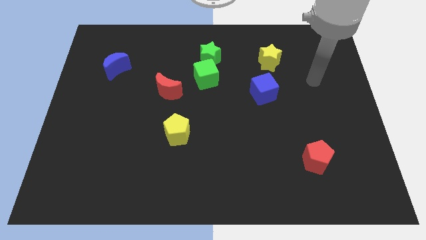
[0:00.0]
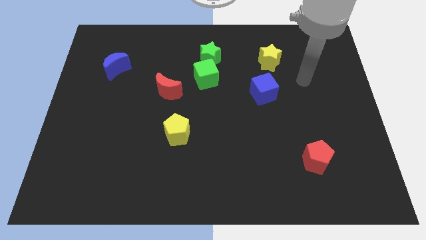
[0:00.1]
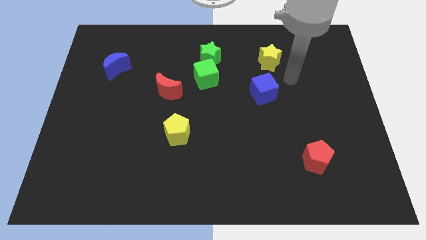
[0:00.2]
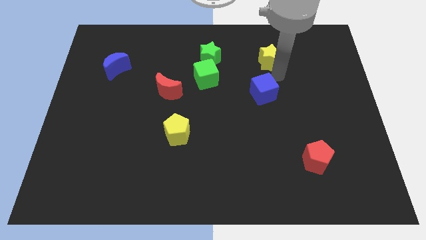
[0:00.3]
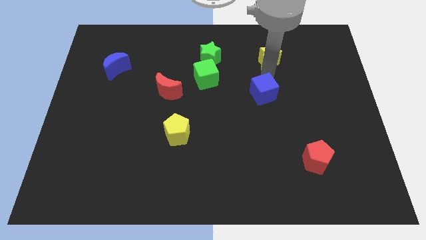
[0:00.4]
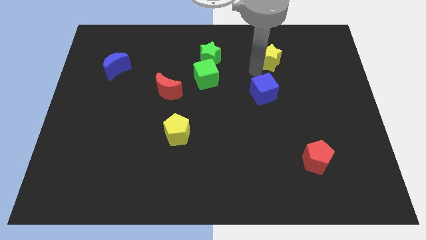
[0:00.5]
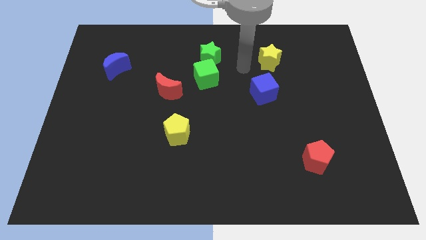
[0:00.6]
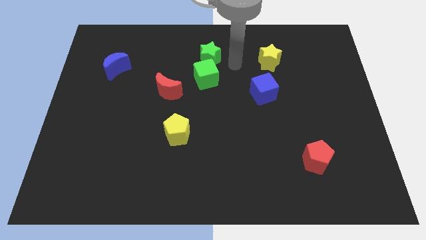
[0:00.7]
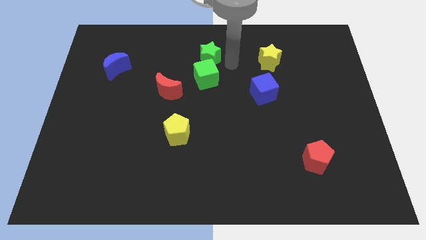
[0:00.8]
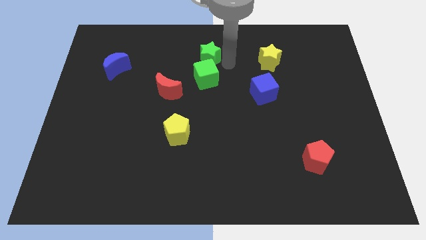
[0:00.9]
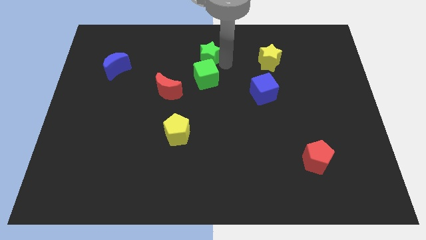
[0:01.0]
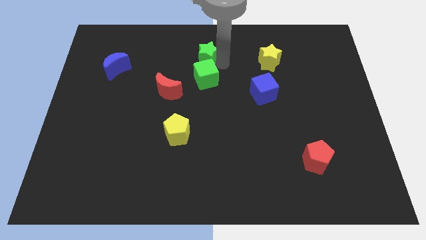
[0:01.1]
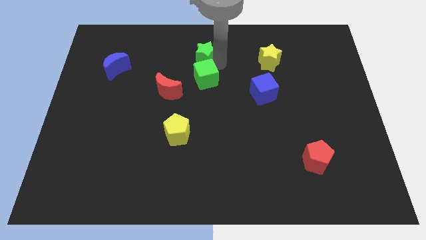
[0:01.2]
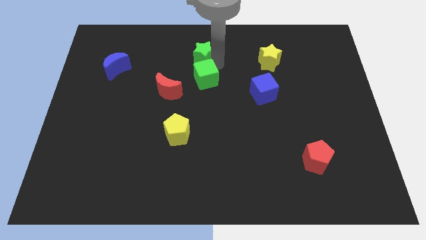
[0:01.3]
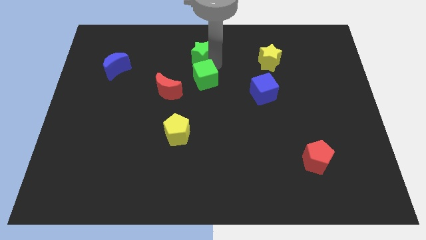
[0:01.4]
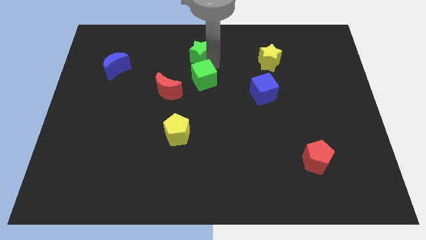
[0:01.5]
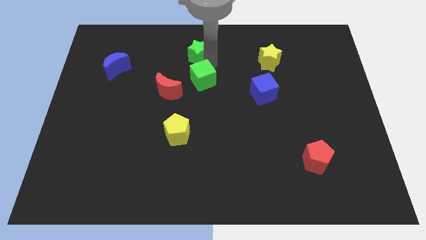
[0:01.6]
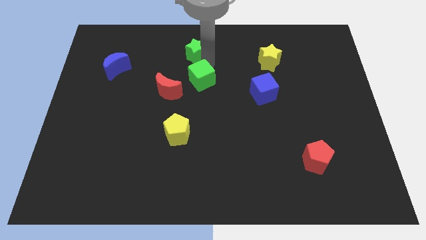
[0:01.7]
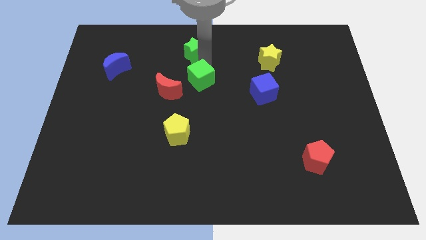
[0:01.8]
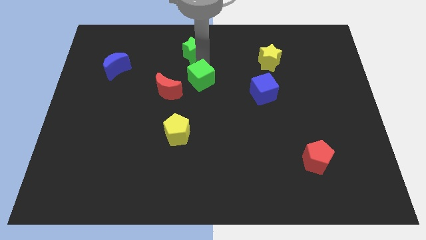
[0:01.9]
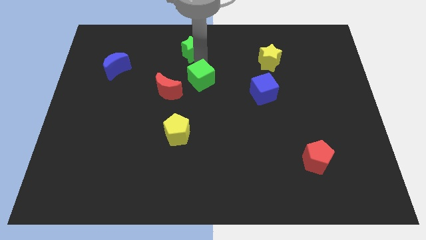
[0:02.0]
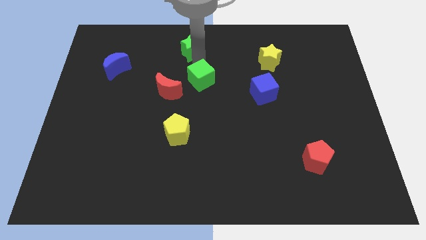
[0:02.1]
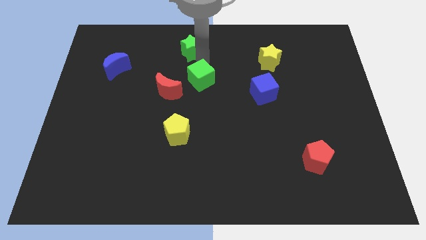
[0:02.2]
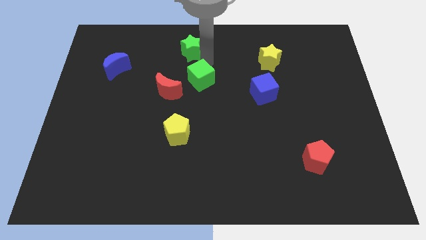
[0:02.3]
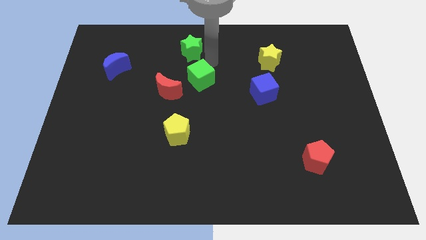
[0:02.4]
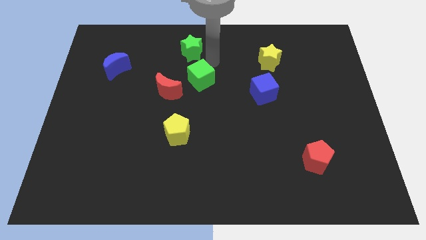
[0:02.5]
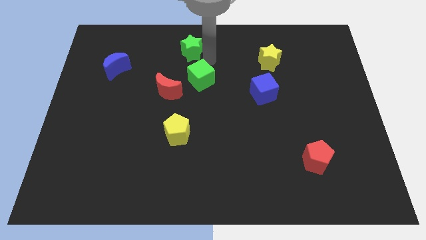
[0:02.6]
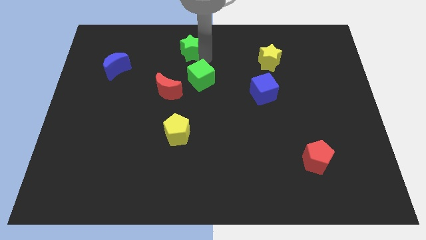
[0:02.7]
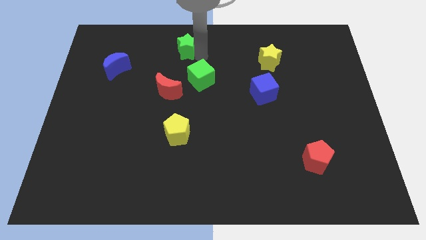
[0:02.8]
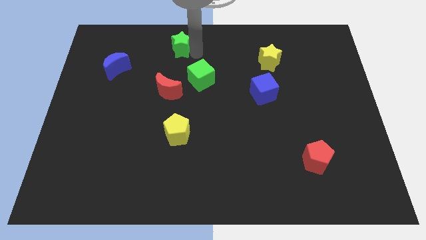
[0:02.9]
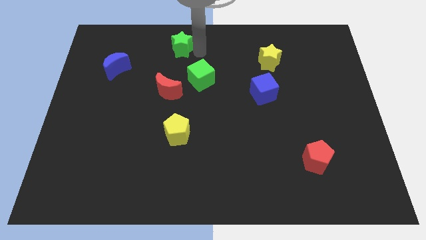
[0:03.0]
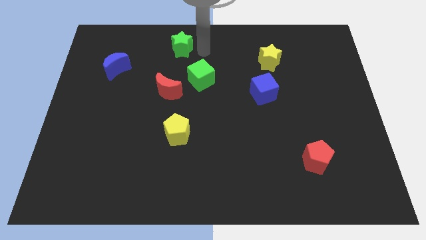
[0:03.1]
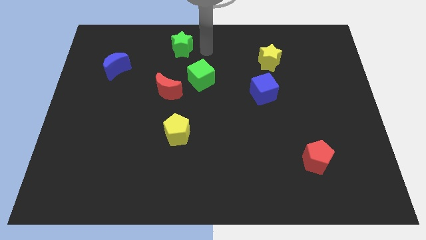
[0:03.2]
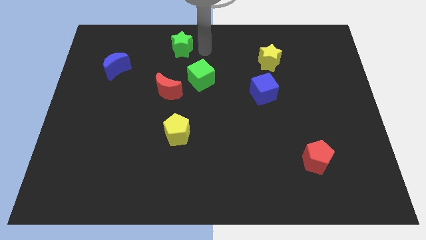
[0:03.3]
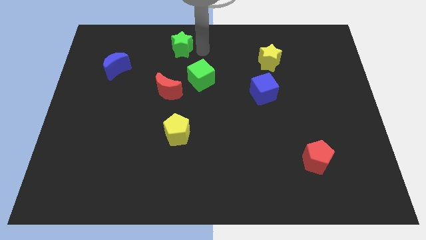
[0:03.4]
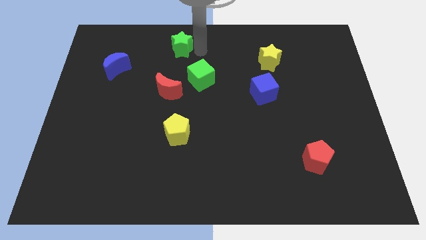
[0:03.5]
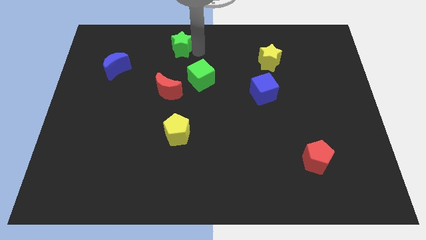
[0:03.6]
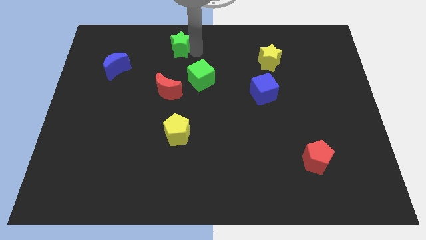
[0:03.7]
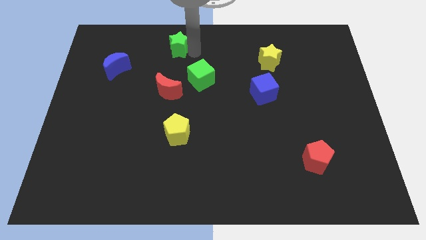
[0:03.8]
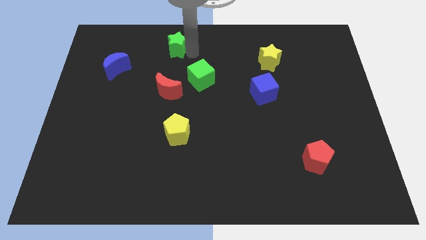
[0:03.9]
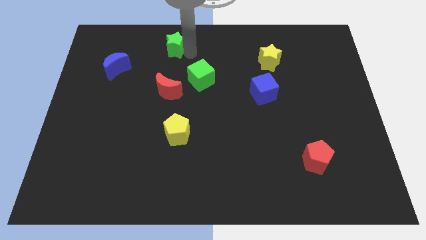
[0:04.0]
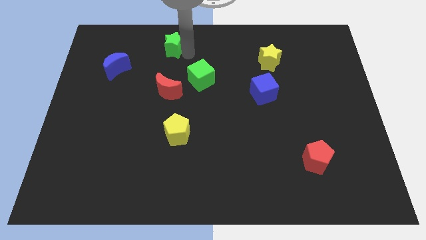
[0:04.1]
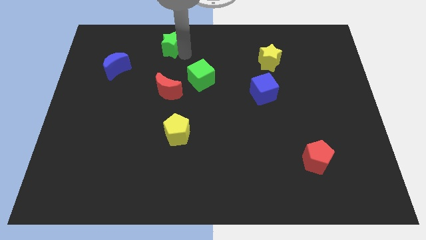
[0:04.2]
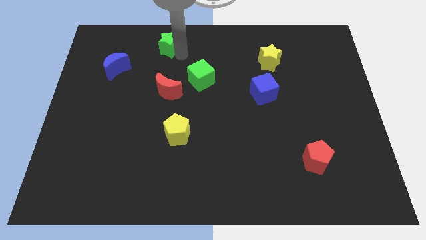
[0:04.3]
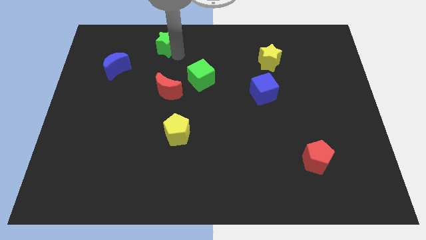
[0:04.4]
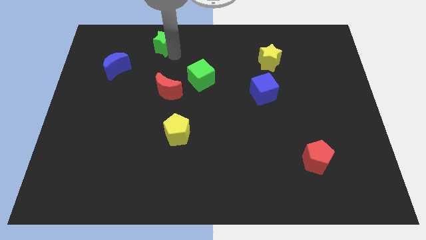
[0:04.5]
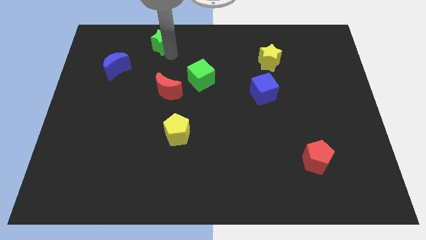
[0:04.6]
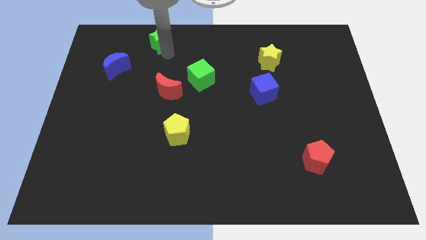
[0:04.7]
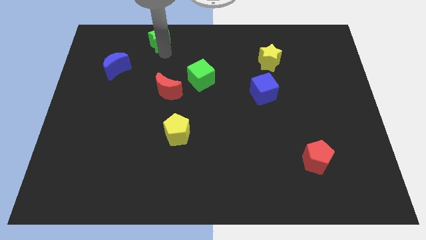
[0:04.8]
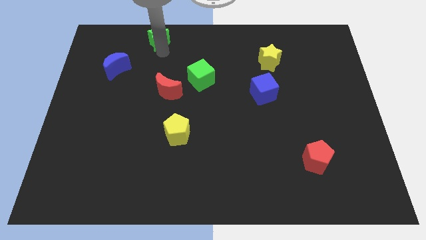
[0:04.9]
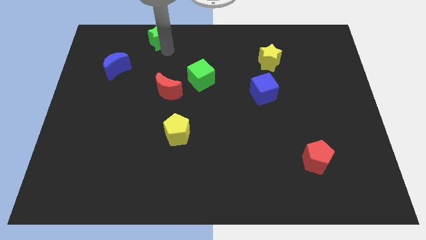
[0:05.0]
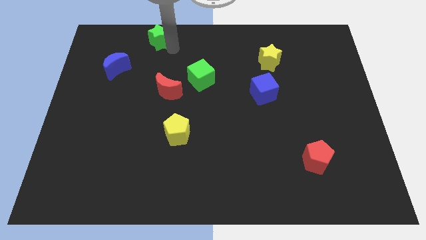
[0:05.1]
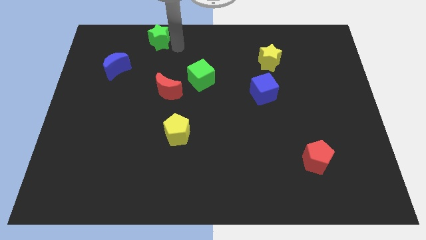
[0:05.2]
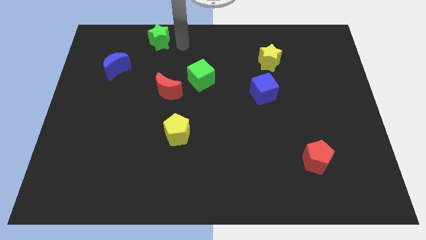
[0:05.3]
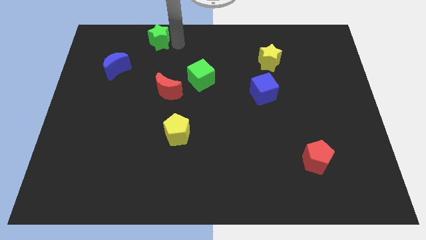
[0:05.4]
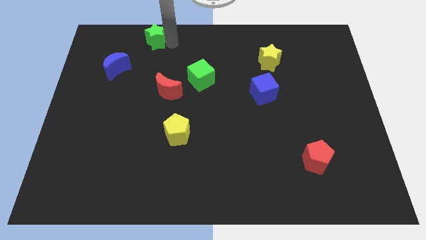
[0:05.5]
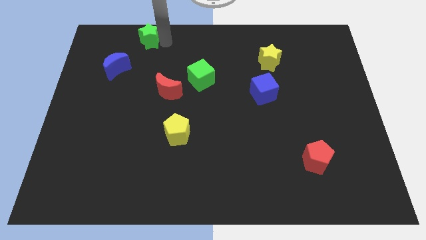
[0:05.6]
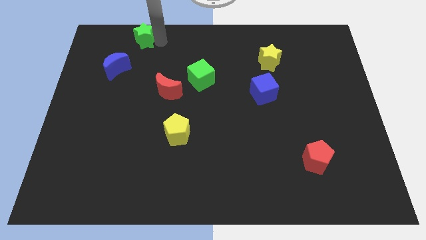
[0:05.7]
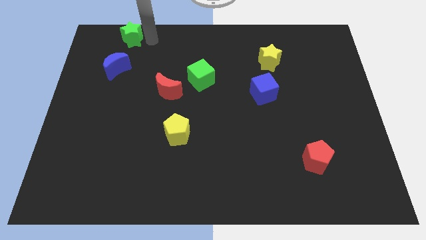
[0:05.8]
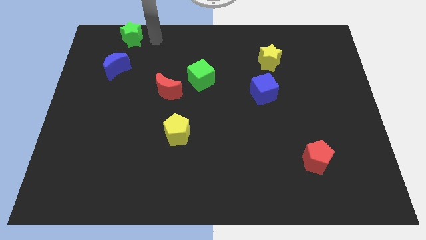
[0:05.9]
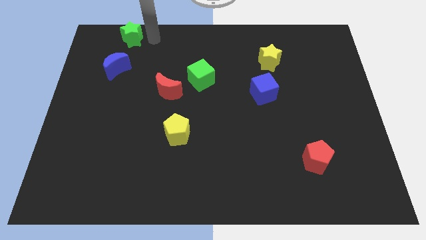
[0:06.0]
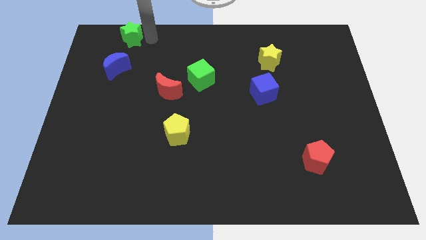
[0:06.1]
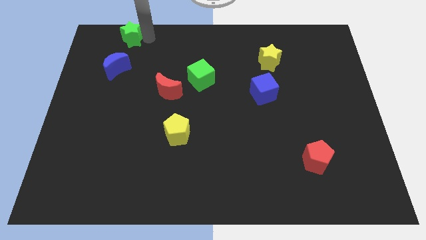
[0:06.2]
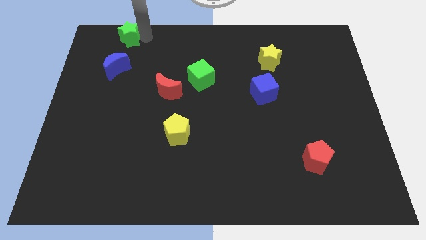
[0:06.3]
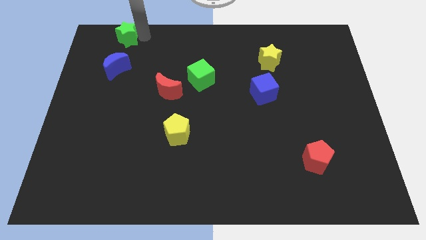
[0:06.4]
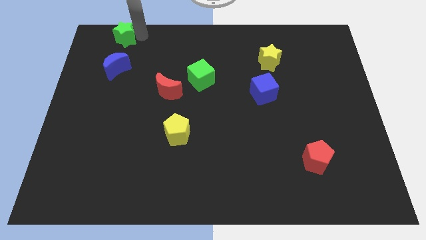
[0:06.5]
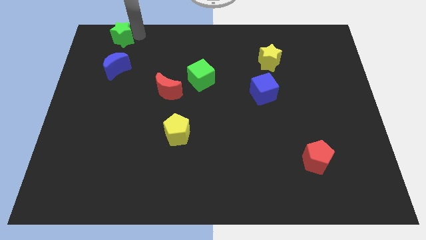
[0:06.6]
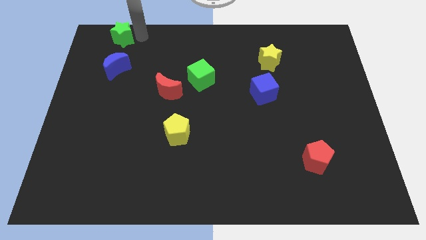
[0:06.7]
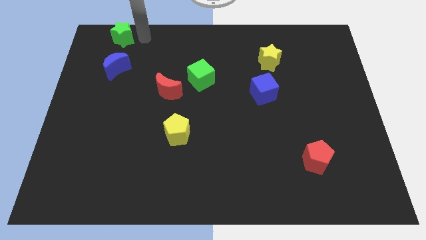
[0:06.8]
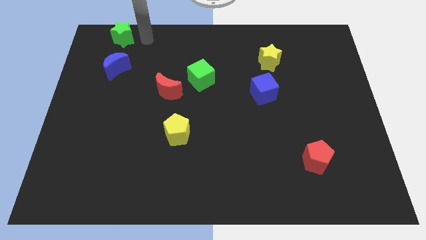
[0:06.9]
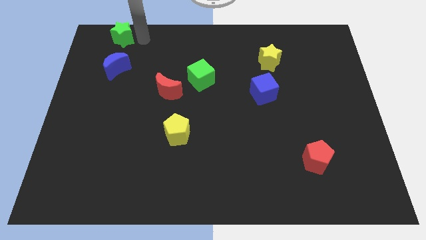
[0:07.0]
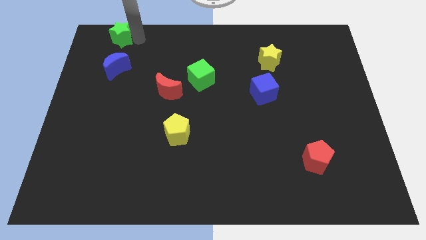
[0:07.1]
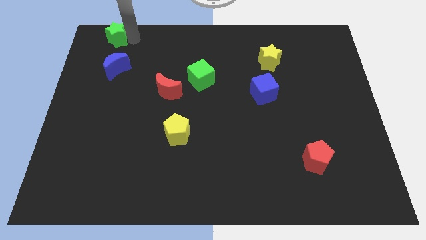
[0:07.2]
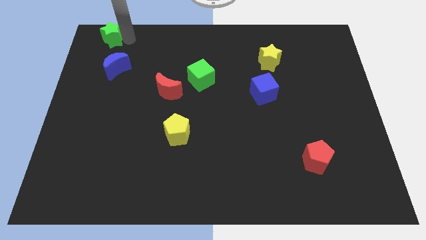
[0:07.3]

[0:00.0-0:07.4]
push the green star to the upper left corner
